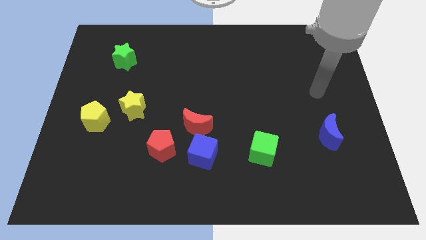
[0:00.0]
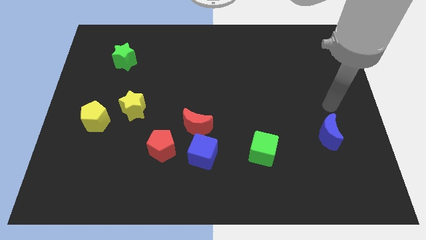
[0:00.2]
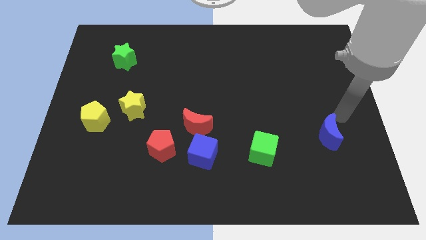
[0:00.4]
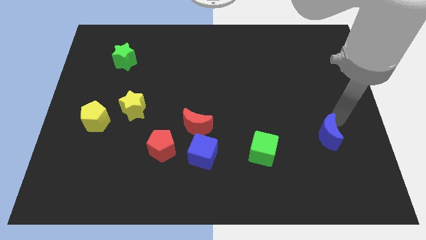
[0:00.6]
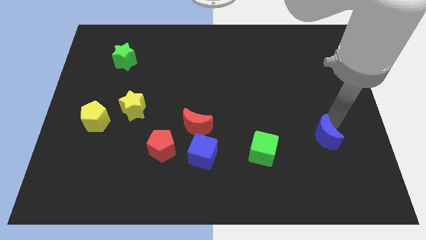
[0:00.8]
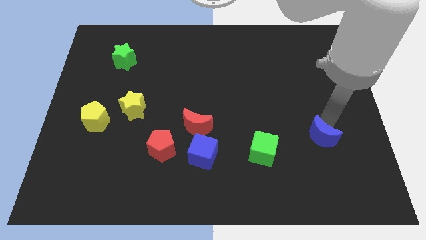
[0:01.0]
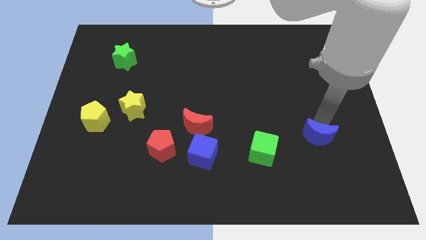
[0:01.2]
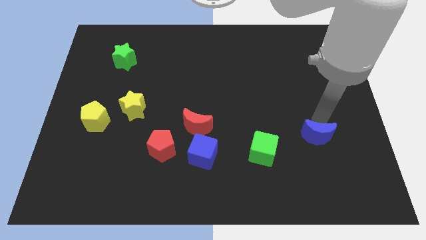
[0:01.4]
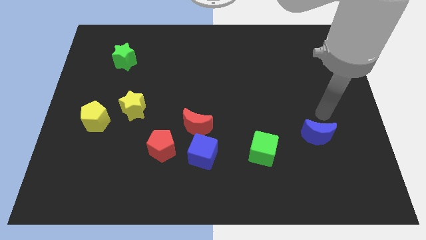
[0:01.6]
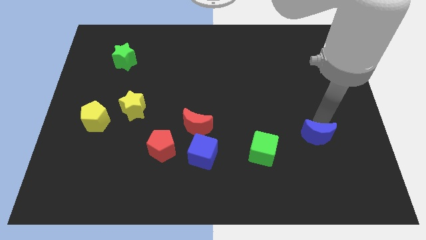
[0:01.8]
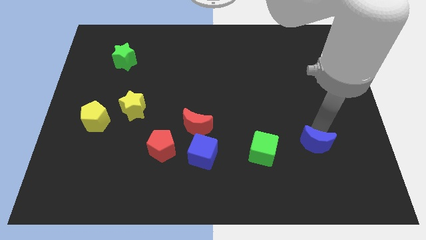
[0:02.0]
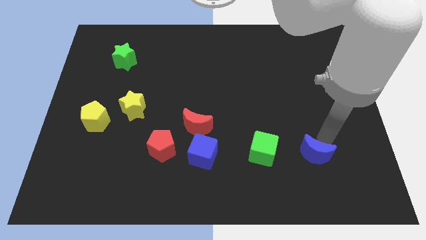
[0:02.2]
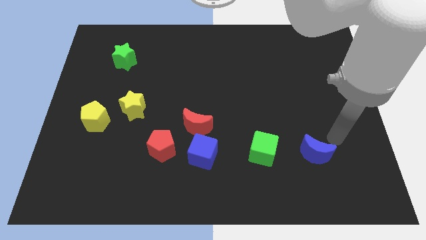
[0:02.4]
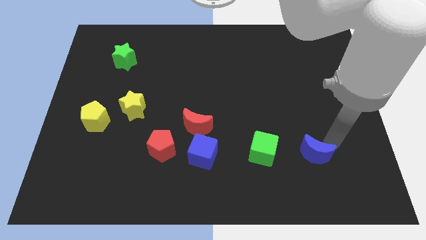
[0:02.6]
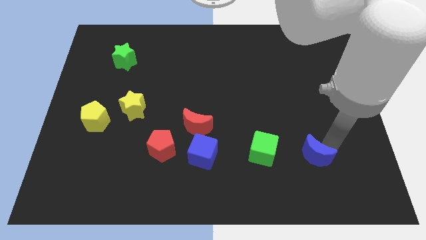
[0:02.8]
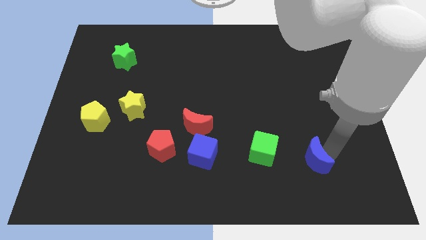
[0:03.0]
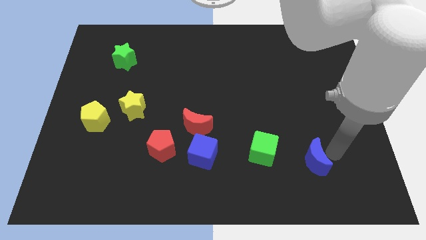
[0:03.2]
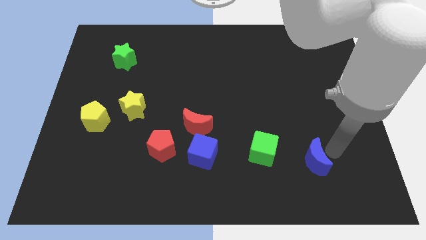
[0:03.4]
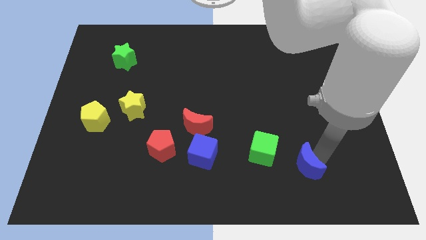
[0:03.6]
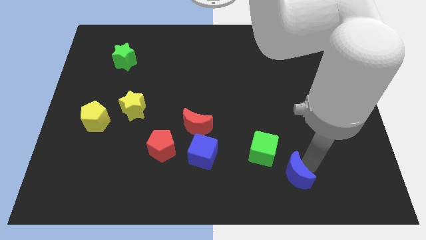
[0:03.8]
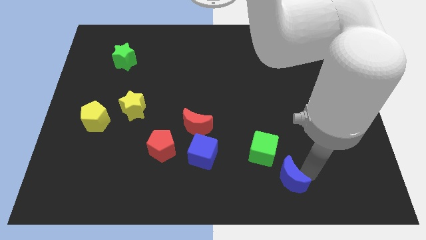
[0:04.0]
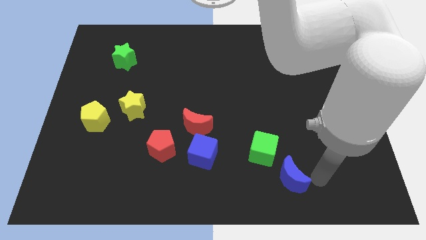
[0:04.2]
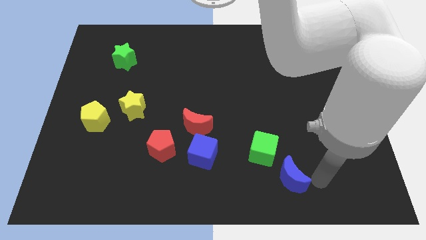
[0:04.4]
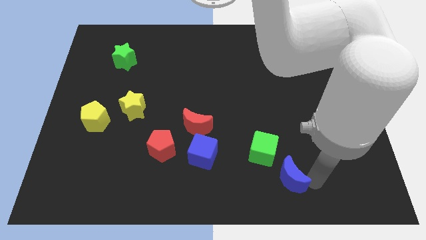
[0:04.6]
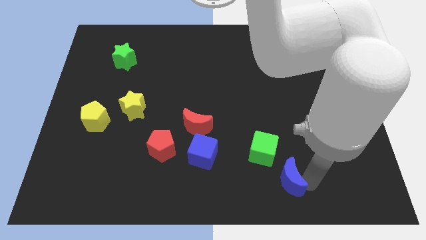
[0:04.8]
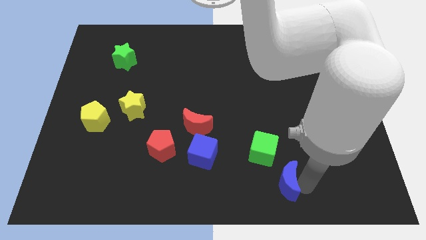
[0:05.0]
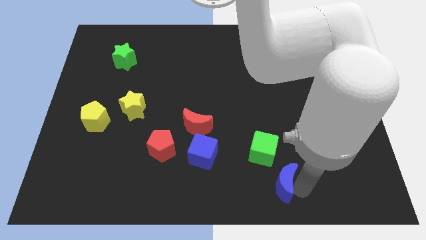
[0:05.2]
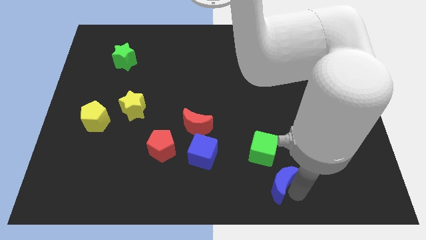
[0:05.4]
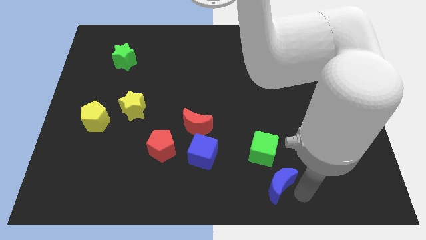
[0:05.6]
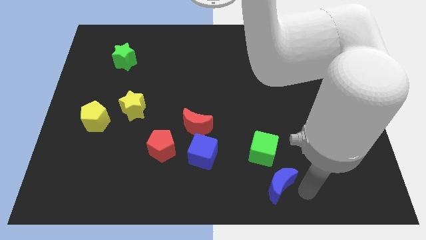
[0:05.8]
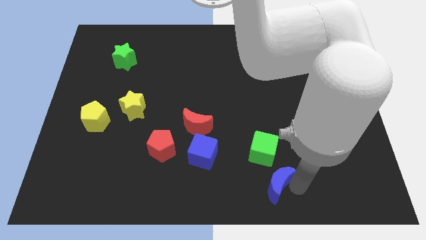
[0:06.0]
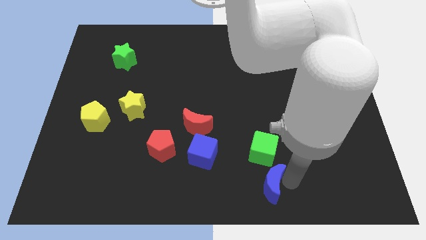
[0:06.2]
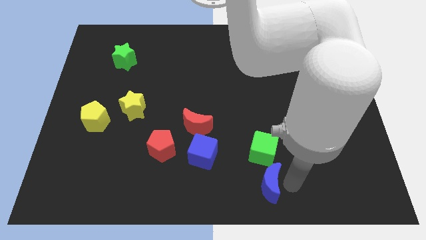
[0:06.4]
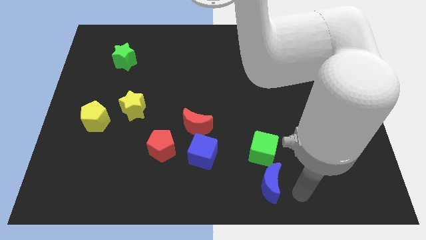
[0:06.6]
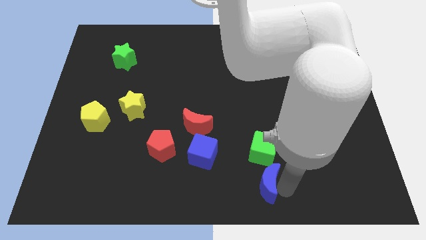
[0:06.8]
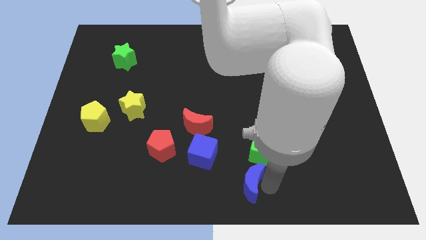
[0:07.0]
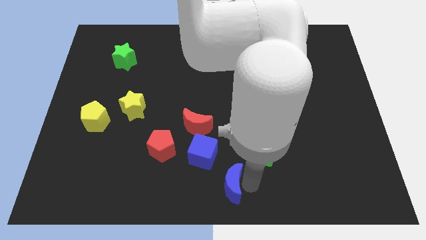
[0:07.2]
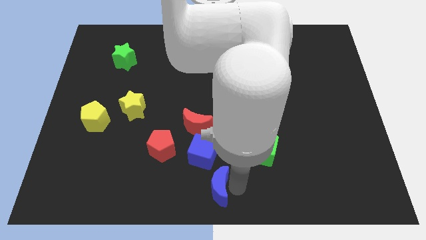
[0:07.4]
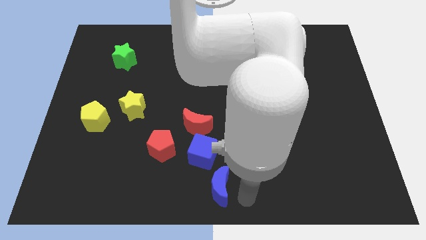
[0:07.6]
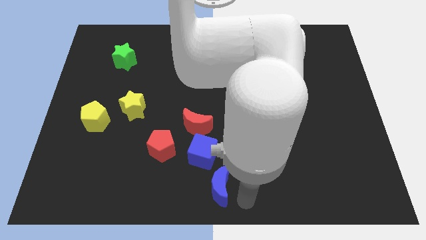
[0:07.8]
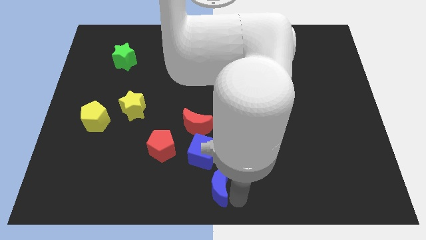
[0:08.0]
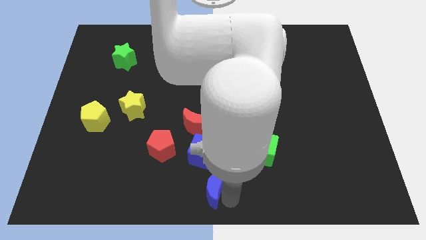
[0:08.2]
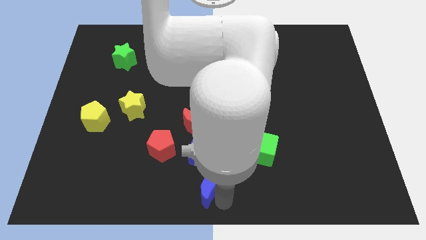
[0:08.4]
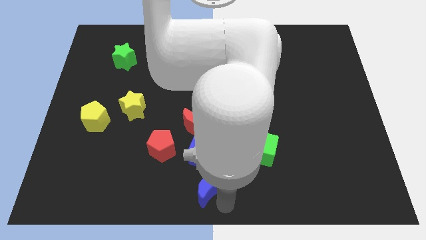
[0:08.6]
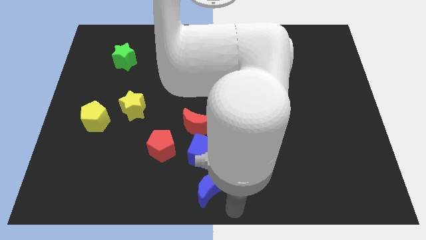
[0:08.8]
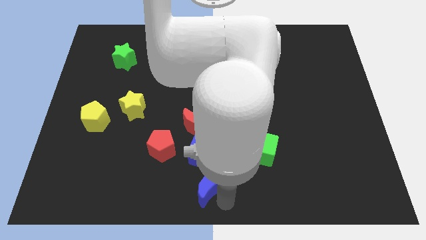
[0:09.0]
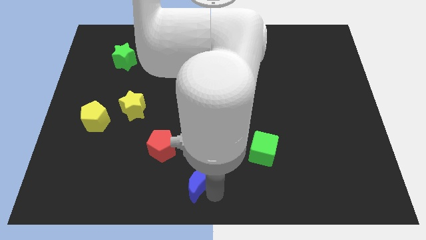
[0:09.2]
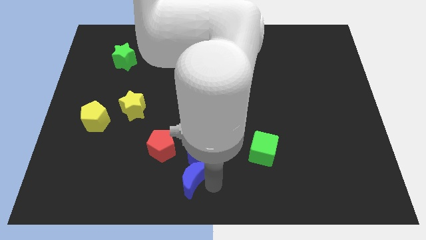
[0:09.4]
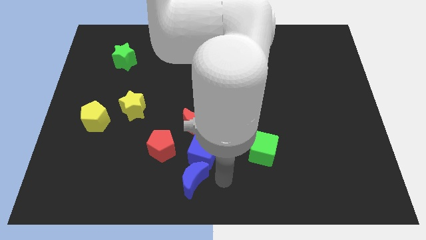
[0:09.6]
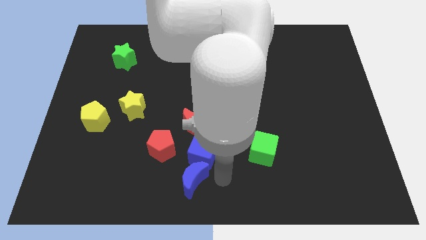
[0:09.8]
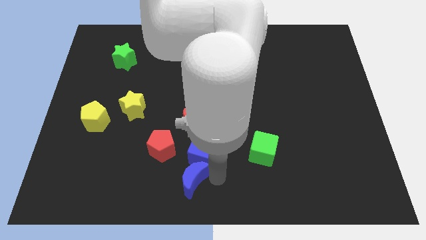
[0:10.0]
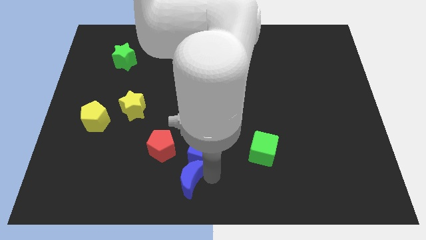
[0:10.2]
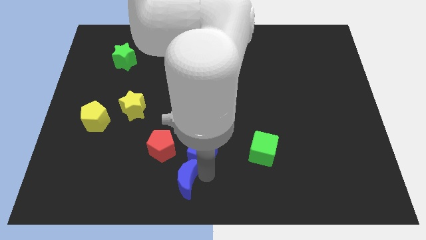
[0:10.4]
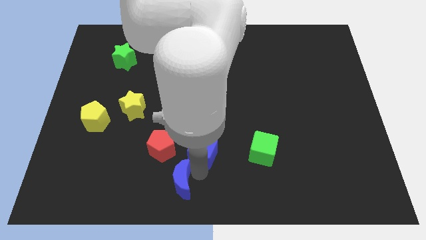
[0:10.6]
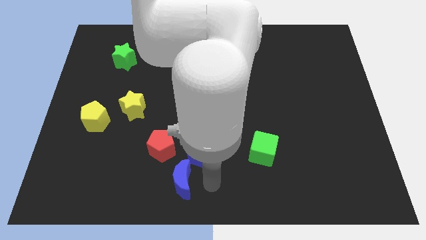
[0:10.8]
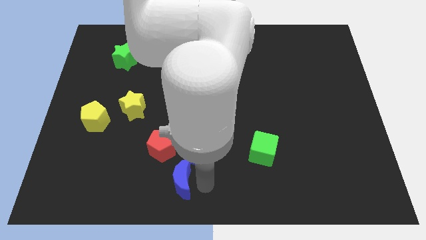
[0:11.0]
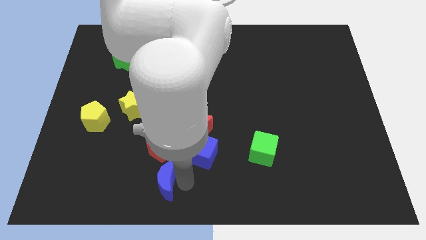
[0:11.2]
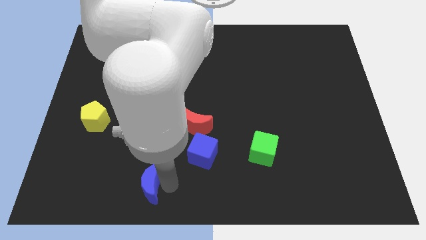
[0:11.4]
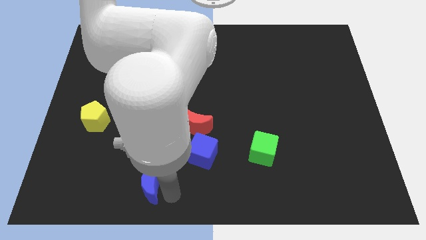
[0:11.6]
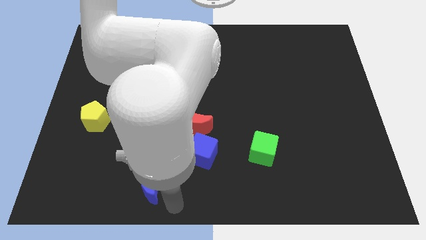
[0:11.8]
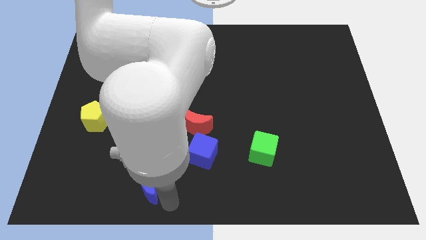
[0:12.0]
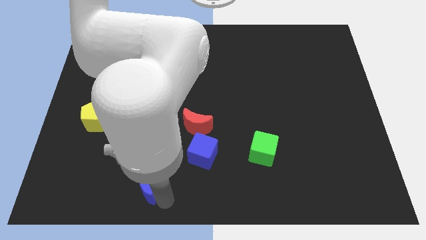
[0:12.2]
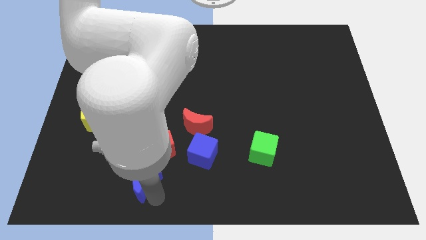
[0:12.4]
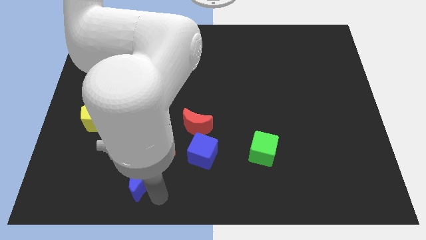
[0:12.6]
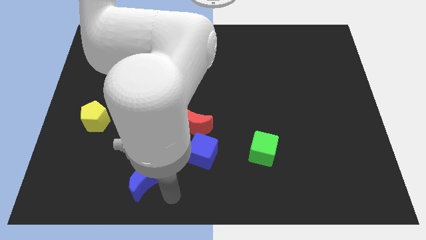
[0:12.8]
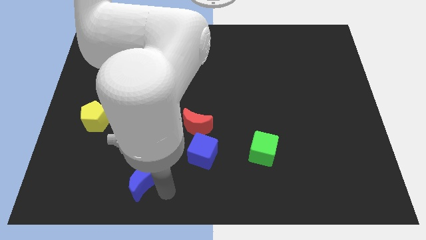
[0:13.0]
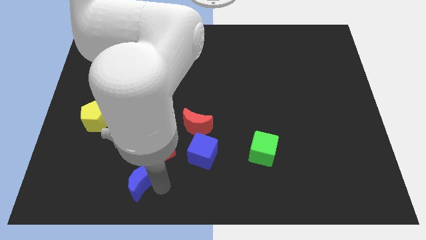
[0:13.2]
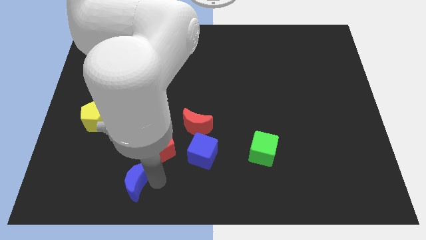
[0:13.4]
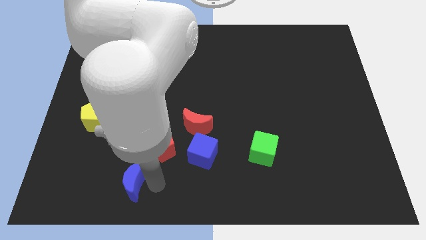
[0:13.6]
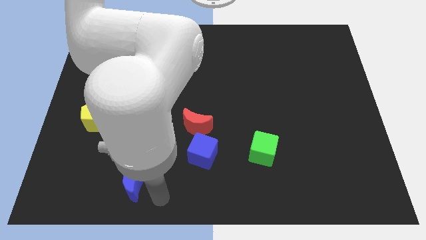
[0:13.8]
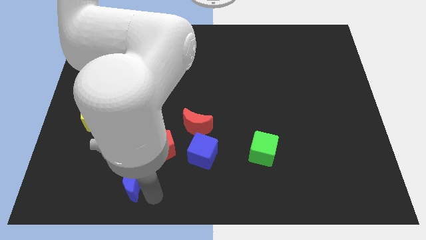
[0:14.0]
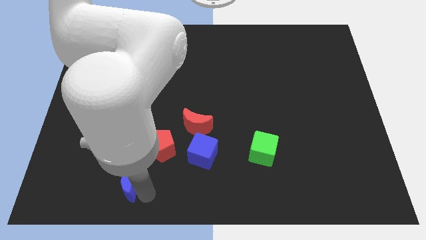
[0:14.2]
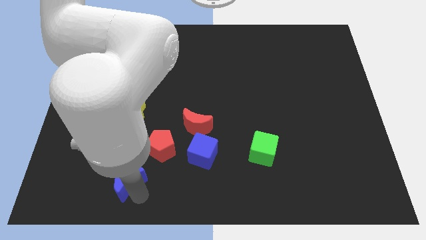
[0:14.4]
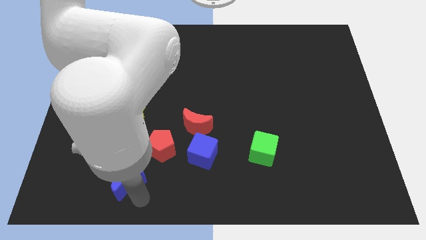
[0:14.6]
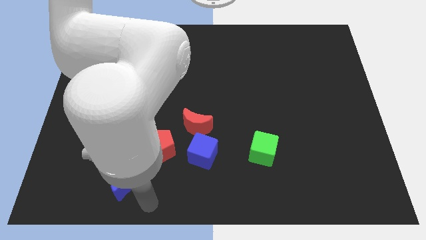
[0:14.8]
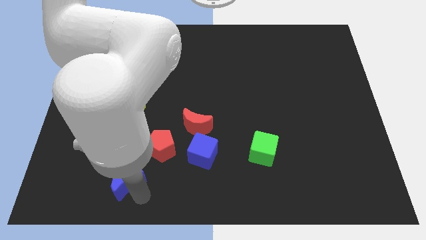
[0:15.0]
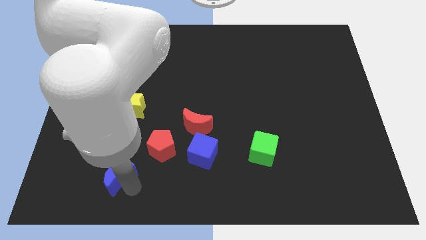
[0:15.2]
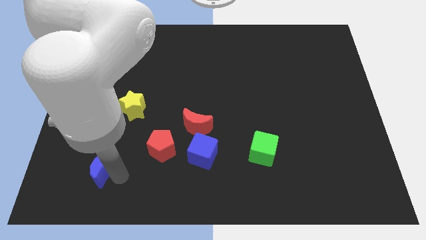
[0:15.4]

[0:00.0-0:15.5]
slide the blue moon below the yellow pentagon
